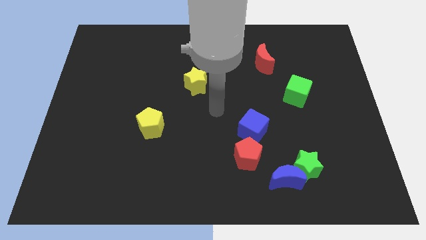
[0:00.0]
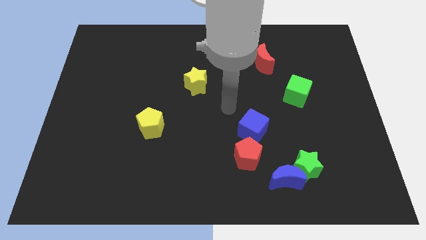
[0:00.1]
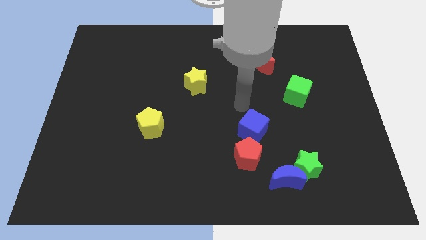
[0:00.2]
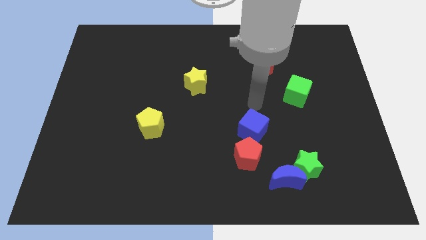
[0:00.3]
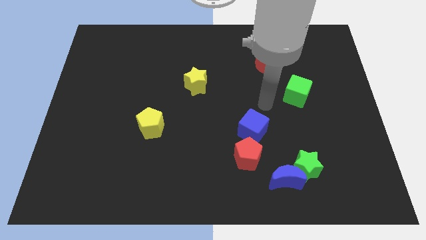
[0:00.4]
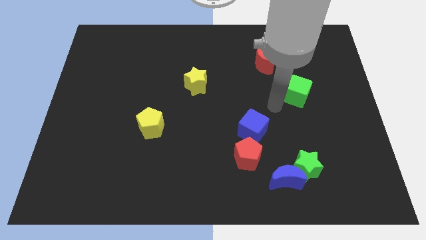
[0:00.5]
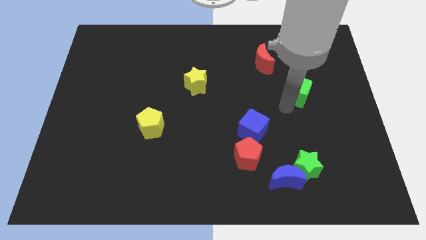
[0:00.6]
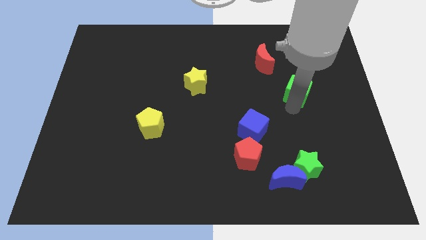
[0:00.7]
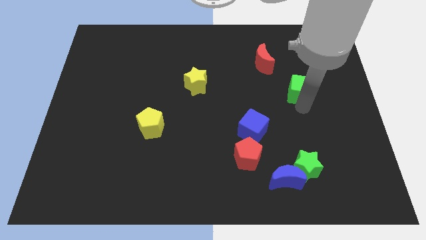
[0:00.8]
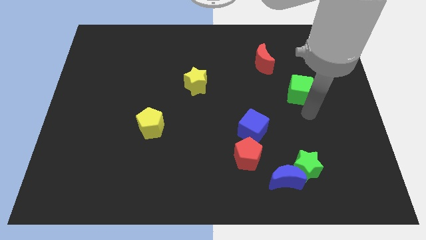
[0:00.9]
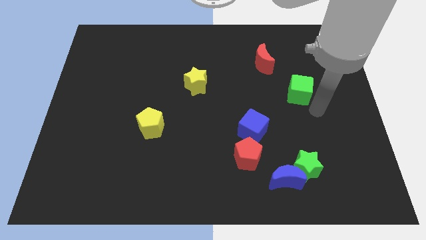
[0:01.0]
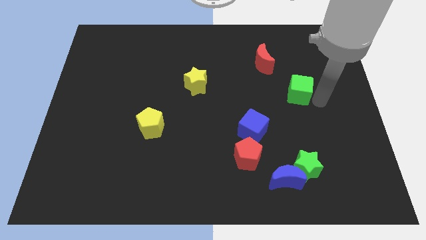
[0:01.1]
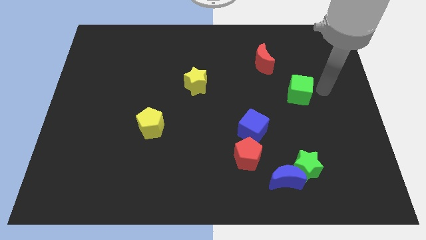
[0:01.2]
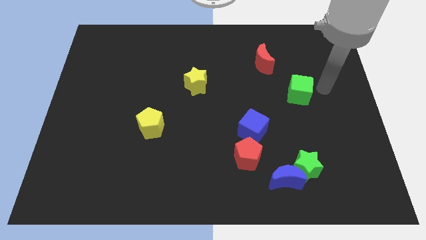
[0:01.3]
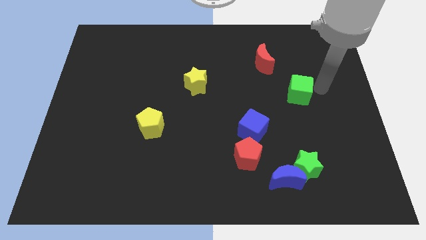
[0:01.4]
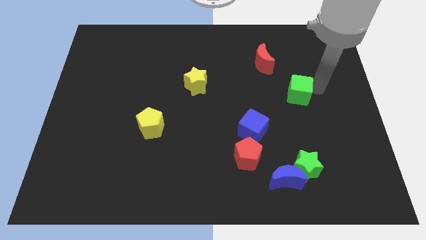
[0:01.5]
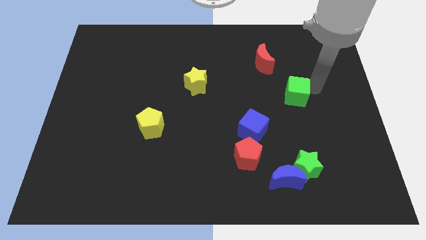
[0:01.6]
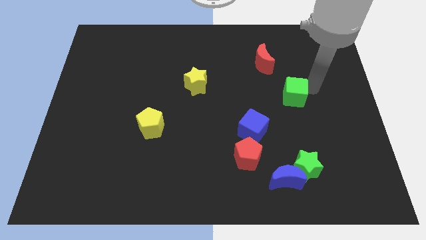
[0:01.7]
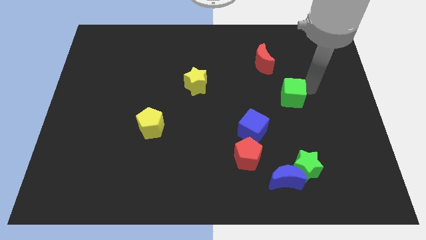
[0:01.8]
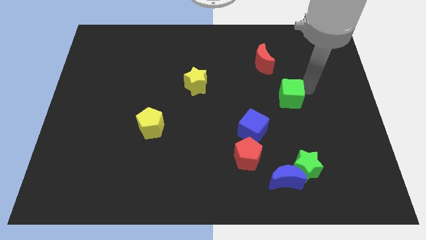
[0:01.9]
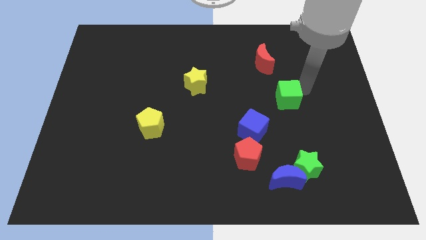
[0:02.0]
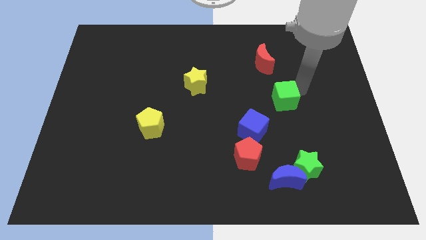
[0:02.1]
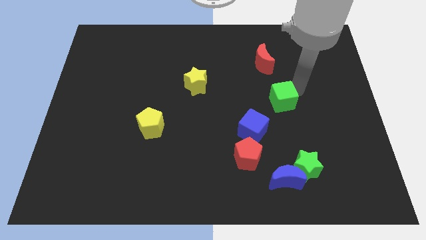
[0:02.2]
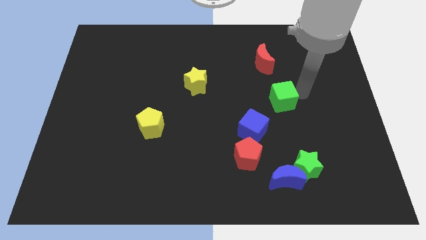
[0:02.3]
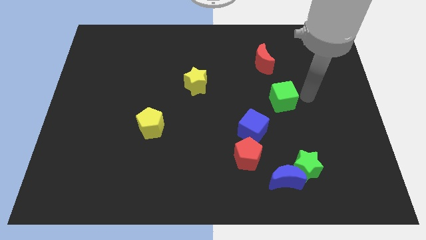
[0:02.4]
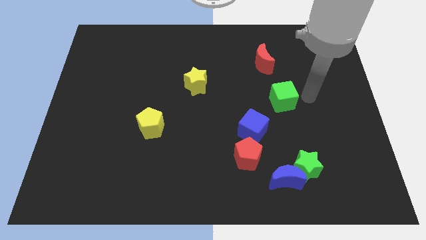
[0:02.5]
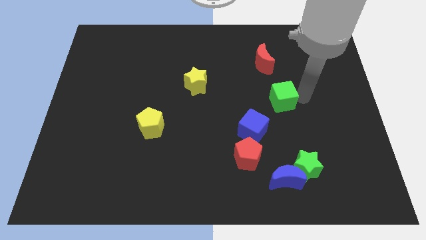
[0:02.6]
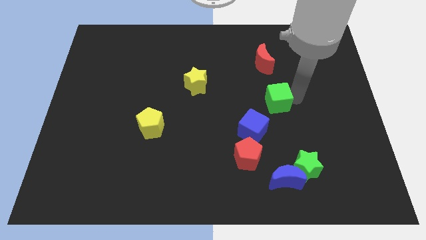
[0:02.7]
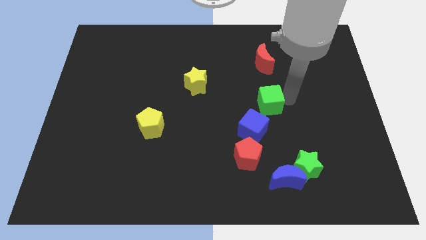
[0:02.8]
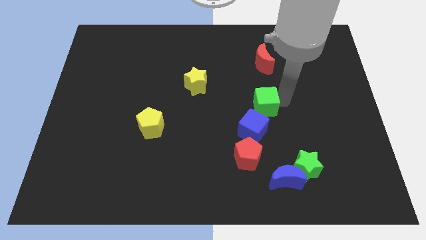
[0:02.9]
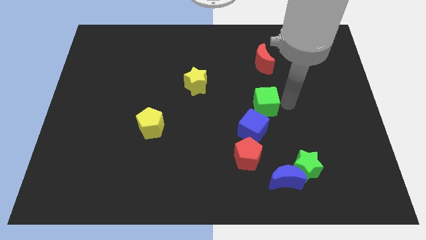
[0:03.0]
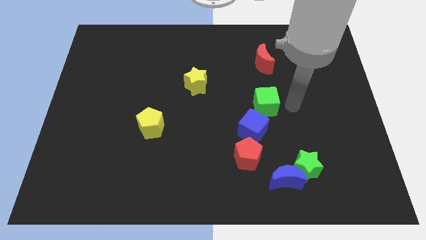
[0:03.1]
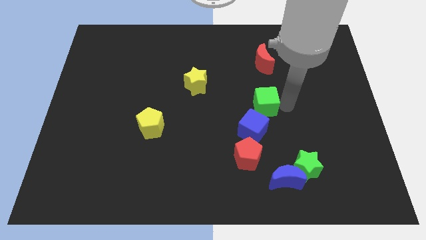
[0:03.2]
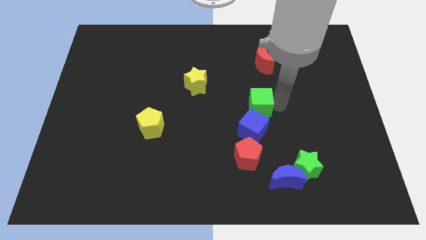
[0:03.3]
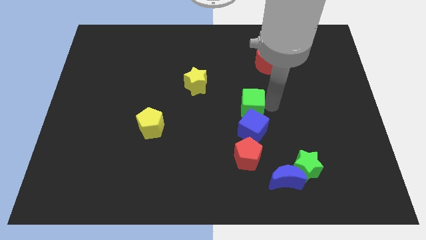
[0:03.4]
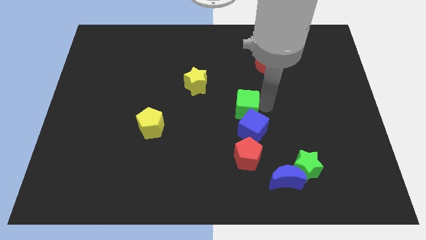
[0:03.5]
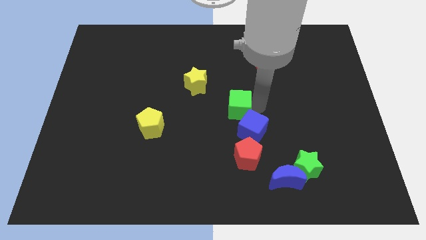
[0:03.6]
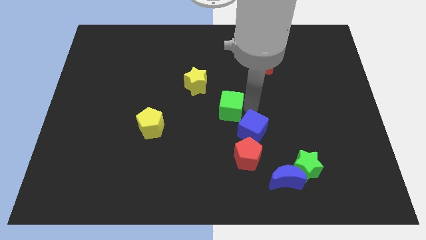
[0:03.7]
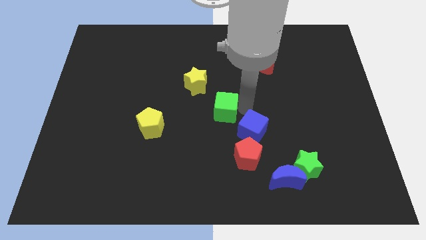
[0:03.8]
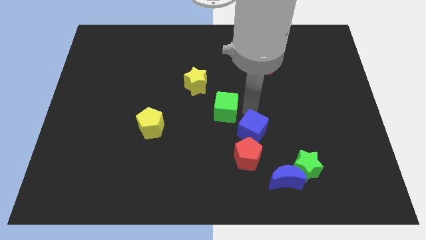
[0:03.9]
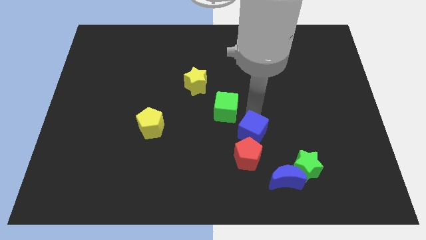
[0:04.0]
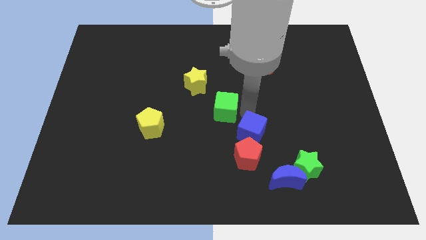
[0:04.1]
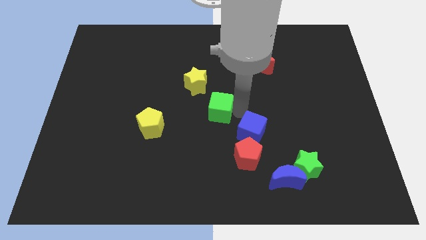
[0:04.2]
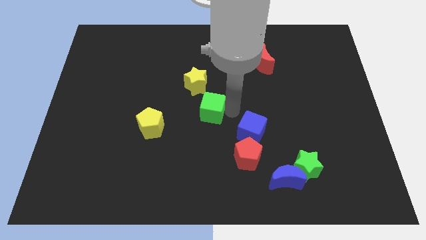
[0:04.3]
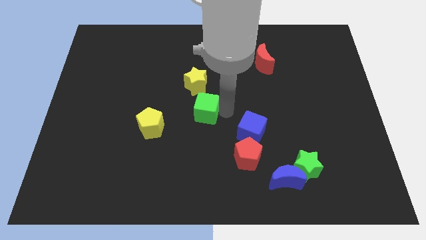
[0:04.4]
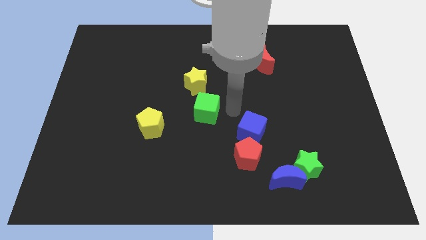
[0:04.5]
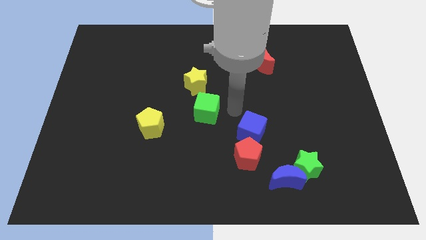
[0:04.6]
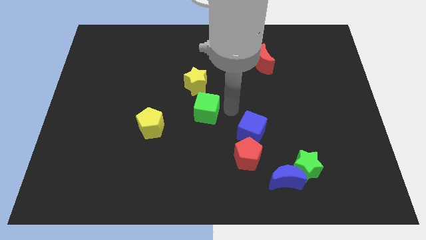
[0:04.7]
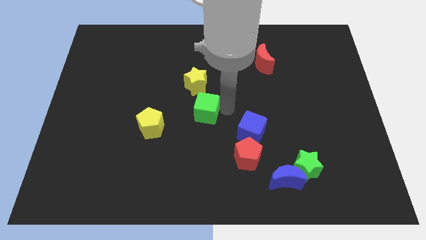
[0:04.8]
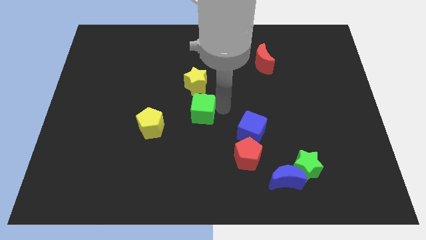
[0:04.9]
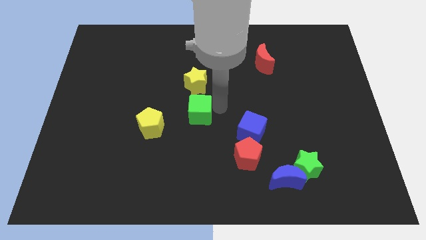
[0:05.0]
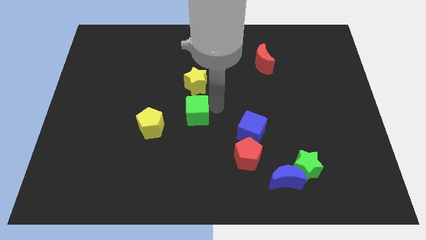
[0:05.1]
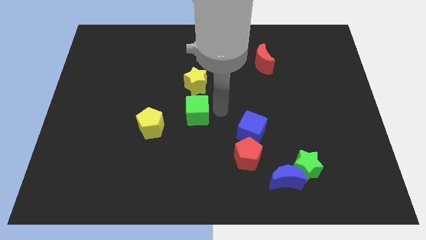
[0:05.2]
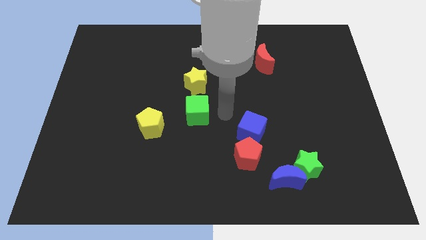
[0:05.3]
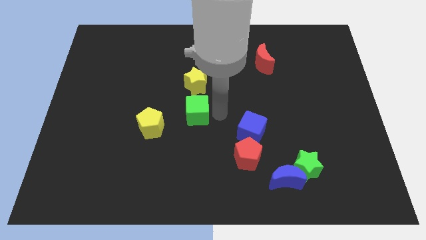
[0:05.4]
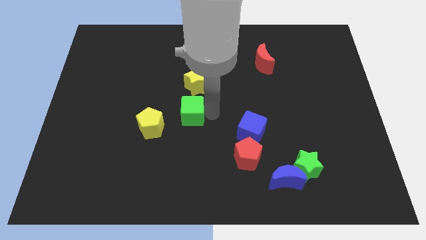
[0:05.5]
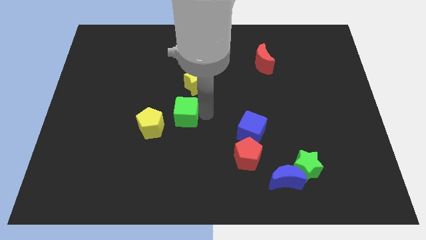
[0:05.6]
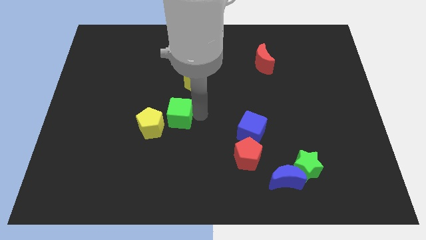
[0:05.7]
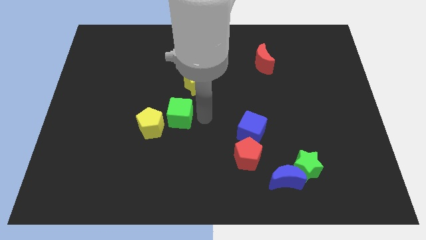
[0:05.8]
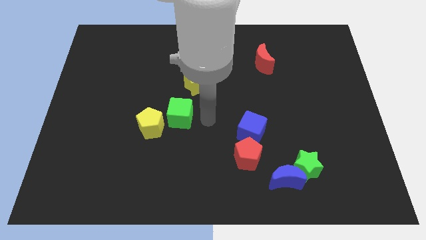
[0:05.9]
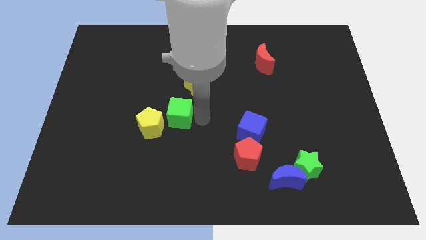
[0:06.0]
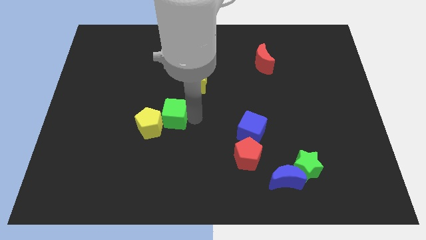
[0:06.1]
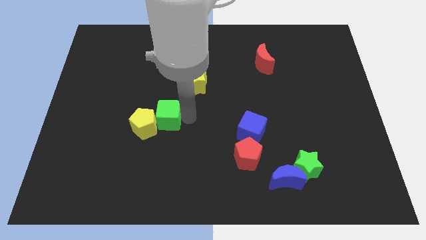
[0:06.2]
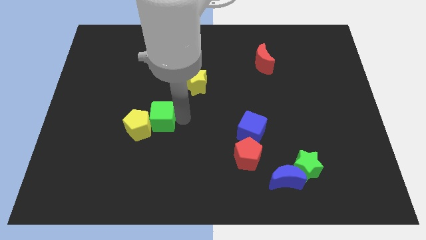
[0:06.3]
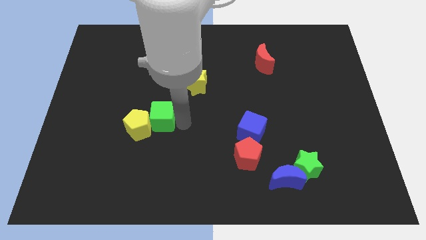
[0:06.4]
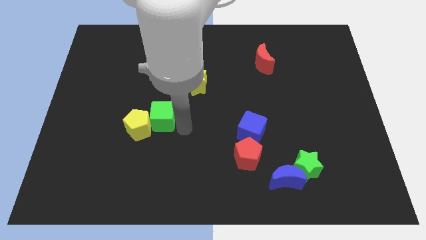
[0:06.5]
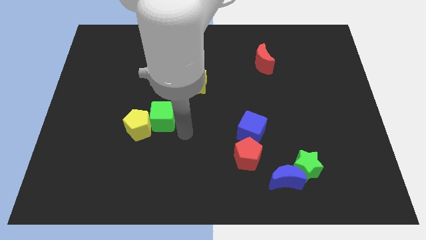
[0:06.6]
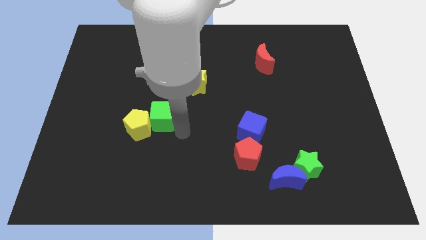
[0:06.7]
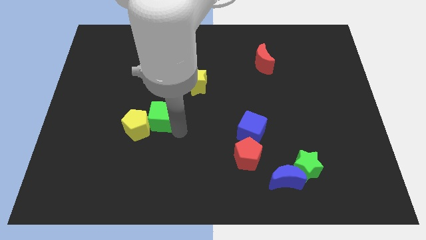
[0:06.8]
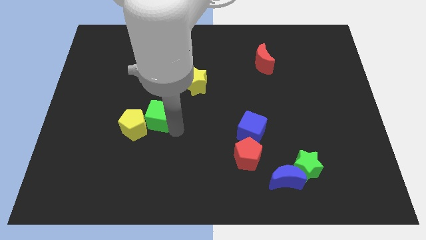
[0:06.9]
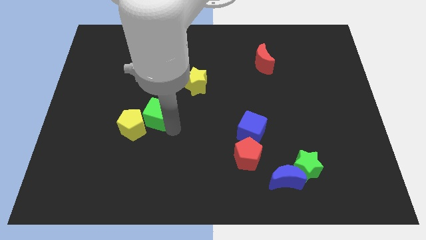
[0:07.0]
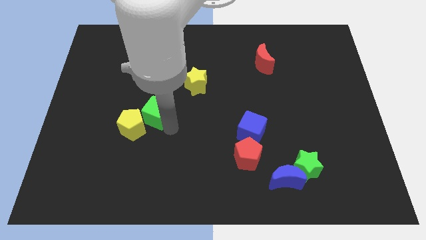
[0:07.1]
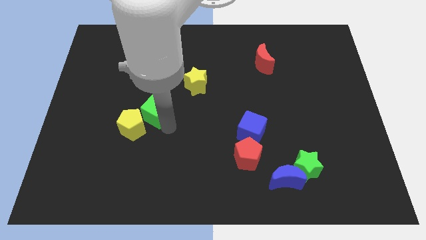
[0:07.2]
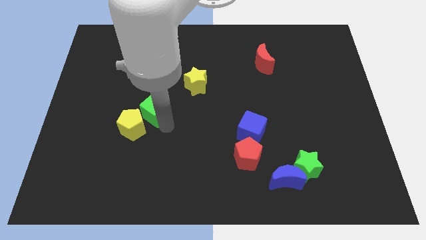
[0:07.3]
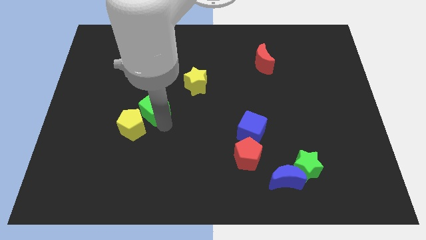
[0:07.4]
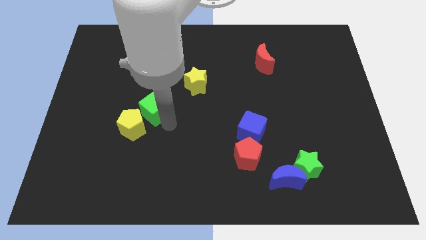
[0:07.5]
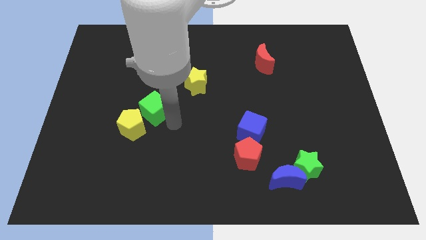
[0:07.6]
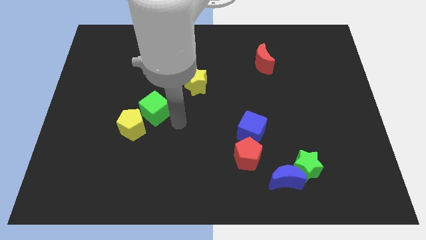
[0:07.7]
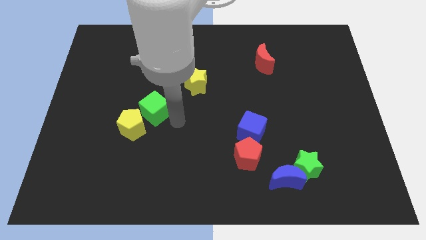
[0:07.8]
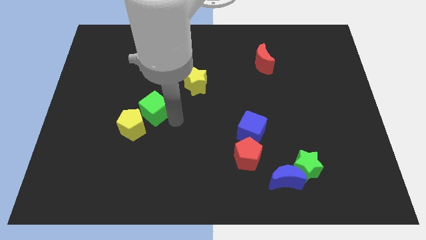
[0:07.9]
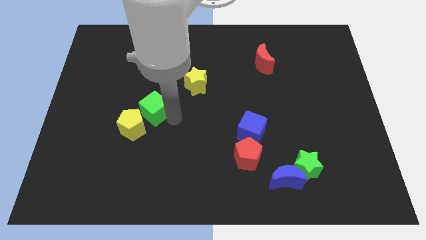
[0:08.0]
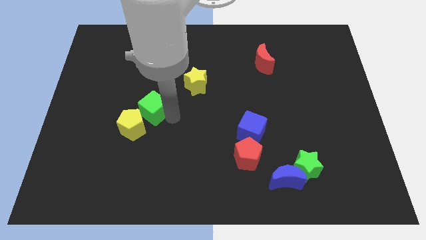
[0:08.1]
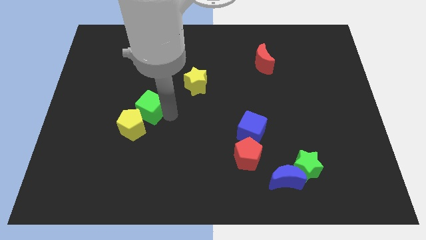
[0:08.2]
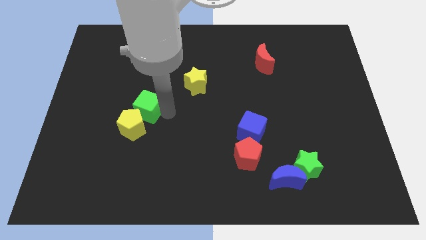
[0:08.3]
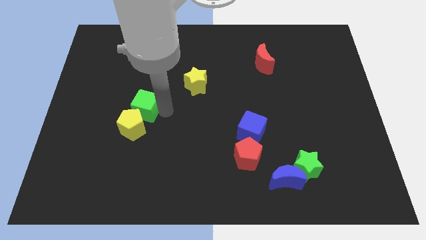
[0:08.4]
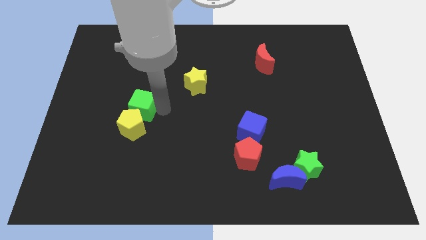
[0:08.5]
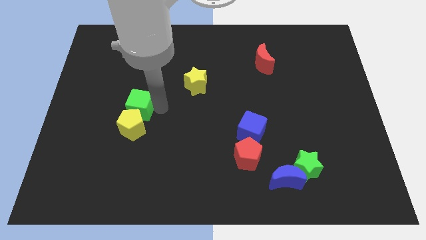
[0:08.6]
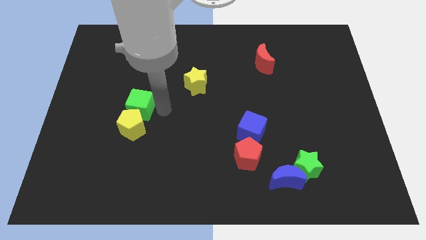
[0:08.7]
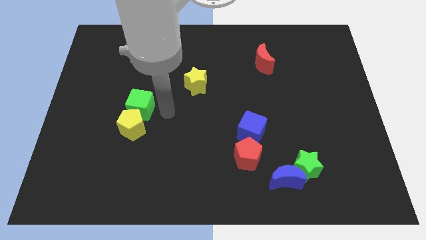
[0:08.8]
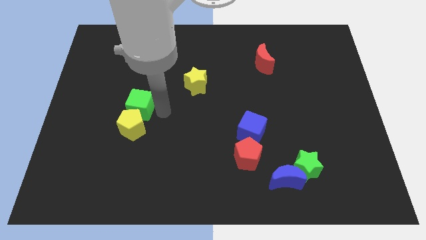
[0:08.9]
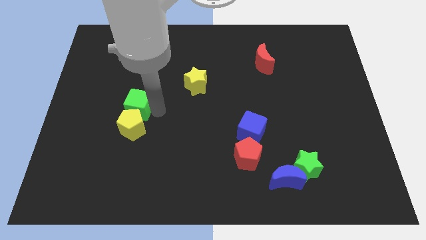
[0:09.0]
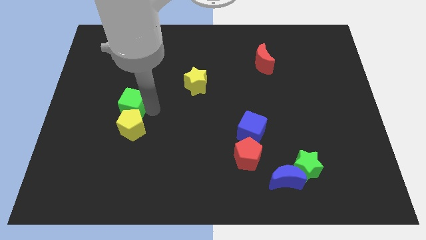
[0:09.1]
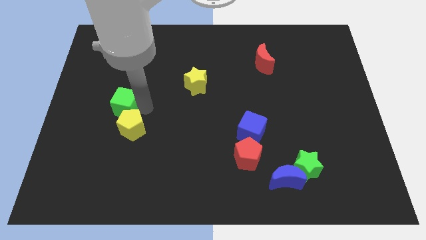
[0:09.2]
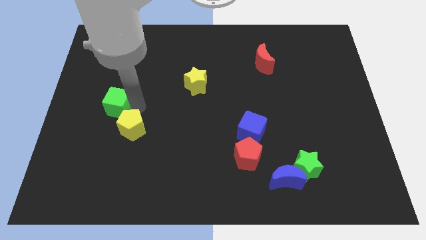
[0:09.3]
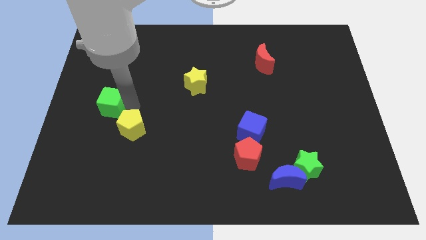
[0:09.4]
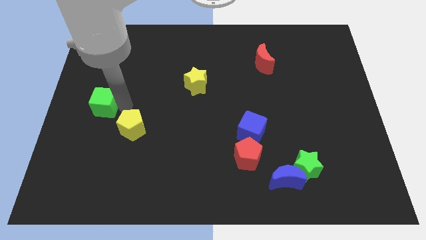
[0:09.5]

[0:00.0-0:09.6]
slide the green cube to the left side of the board
